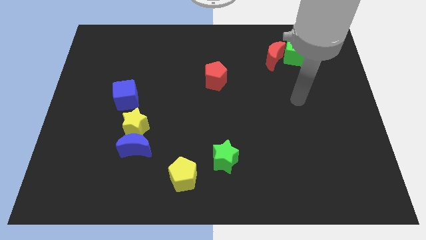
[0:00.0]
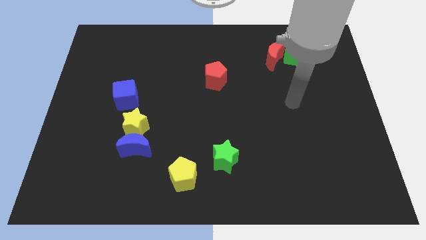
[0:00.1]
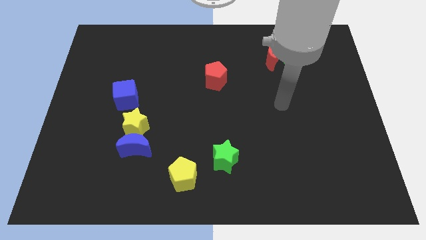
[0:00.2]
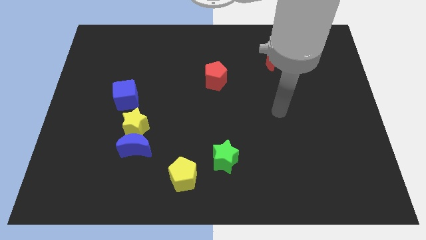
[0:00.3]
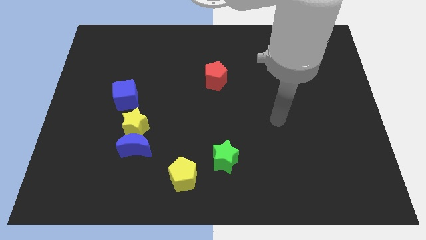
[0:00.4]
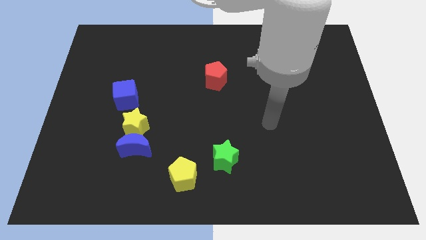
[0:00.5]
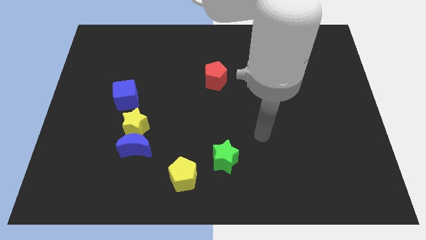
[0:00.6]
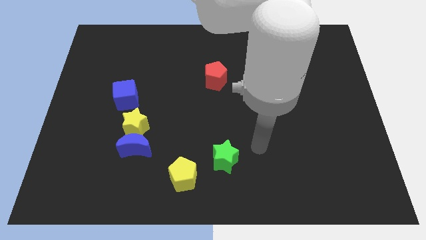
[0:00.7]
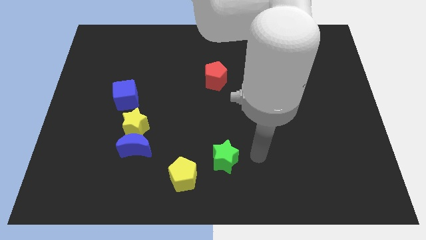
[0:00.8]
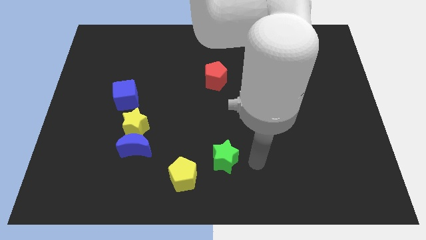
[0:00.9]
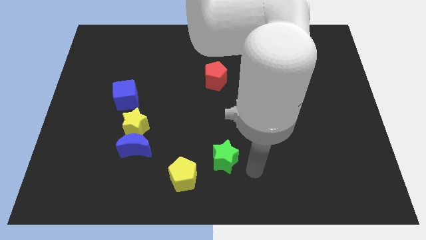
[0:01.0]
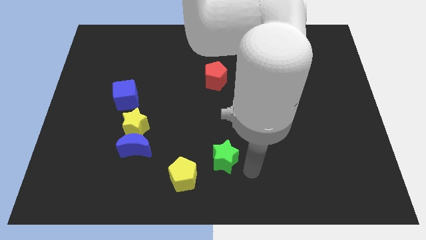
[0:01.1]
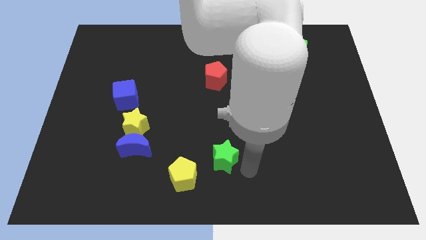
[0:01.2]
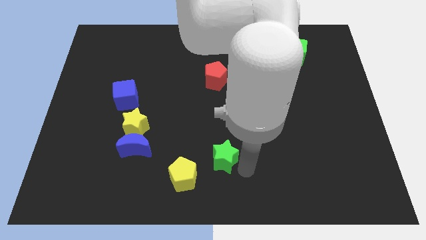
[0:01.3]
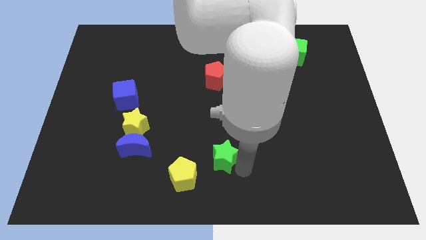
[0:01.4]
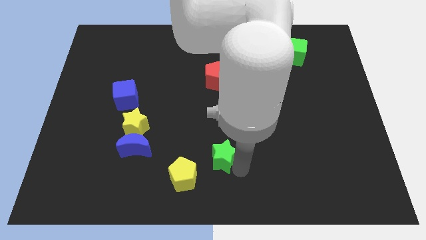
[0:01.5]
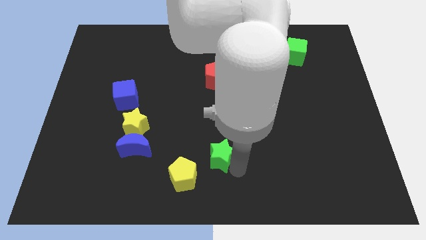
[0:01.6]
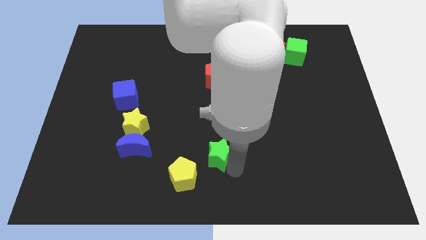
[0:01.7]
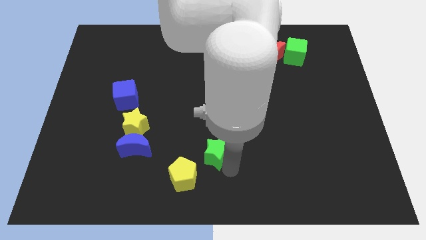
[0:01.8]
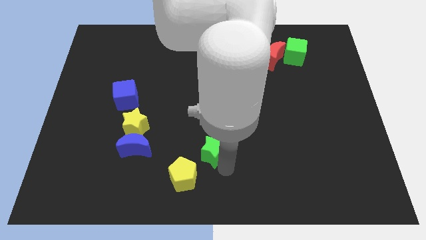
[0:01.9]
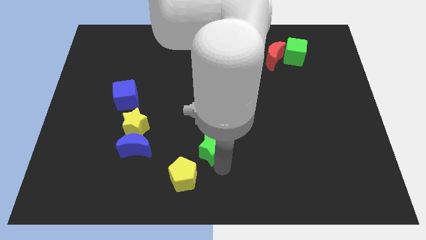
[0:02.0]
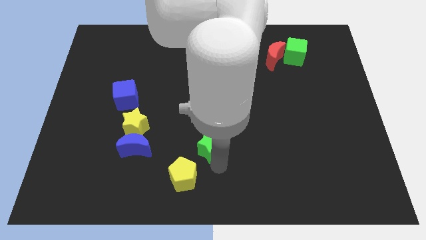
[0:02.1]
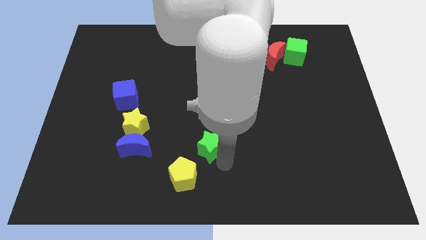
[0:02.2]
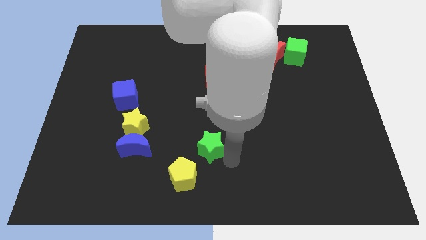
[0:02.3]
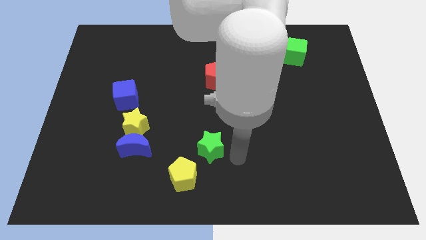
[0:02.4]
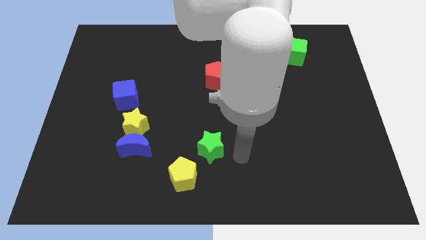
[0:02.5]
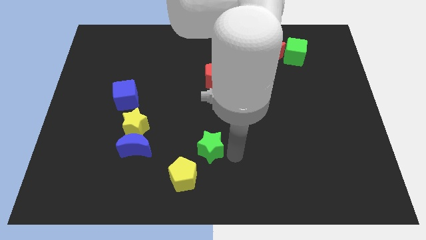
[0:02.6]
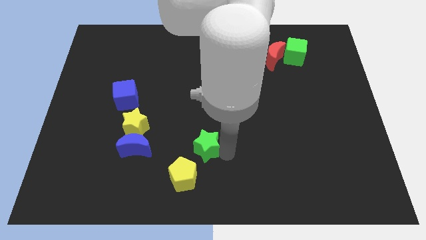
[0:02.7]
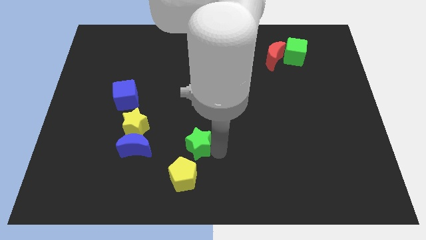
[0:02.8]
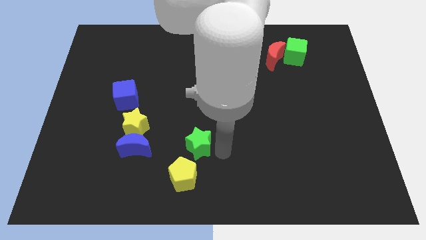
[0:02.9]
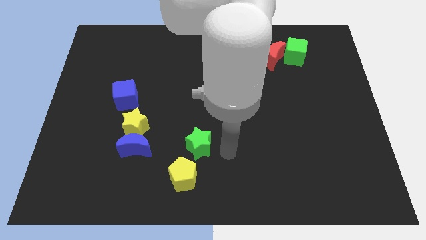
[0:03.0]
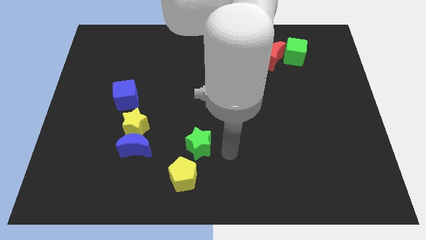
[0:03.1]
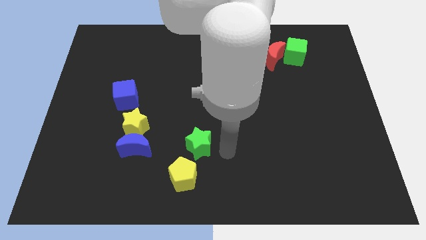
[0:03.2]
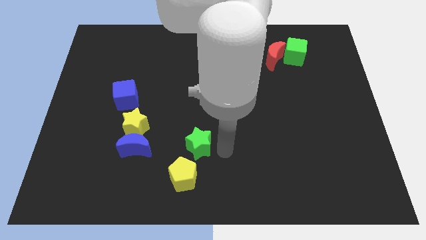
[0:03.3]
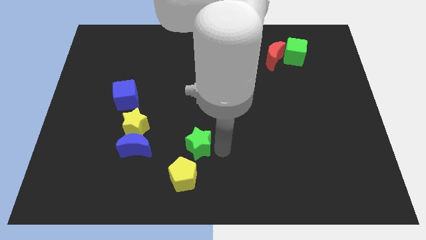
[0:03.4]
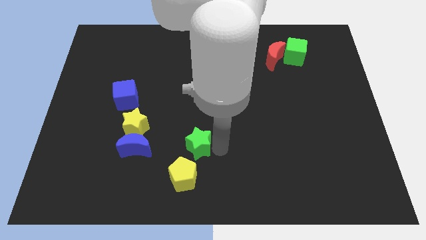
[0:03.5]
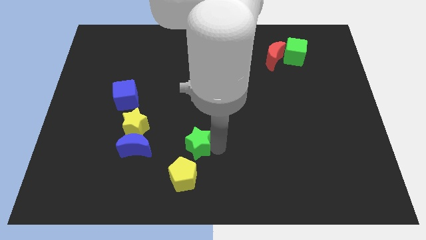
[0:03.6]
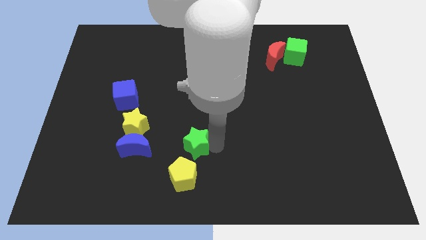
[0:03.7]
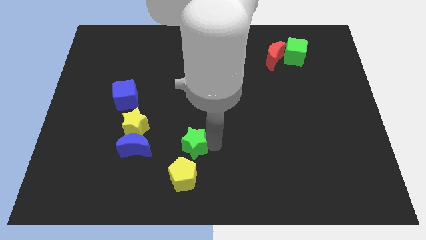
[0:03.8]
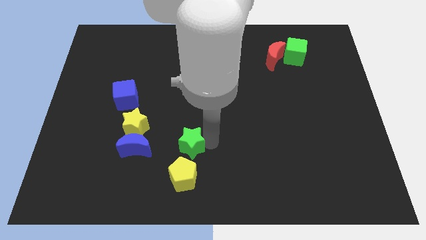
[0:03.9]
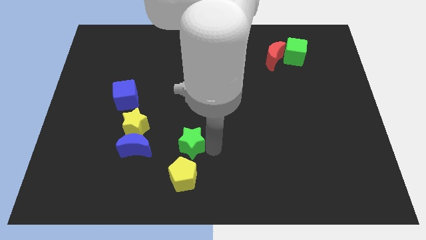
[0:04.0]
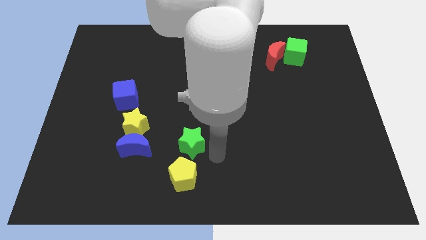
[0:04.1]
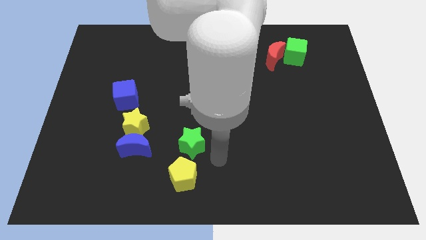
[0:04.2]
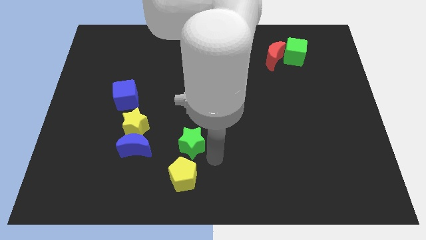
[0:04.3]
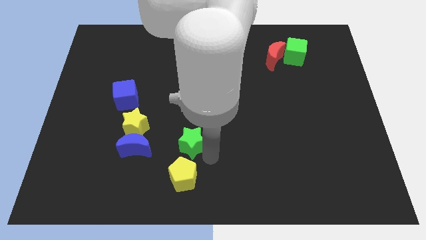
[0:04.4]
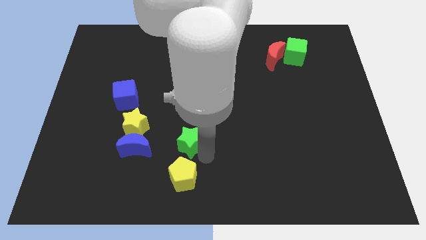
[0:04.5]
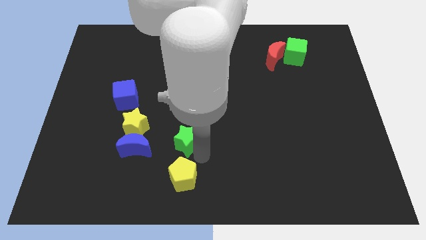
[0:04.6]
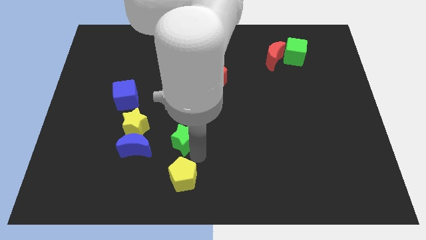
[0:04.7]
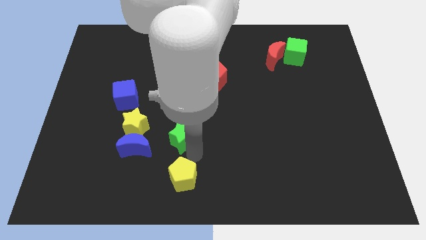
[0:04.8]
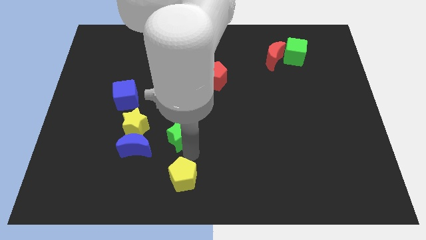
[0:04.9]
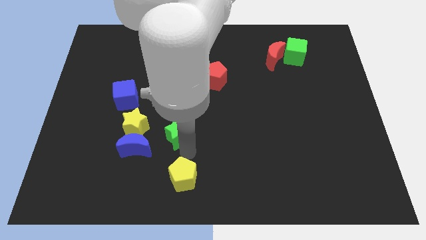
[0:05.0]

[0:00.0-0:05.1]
put the green star to the top right side of the blue moon
